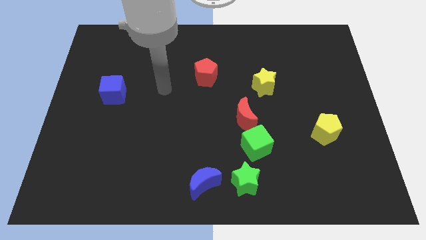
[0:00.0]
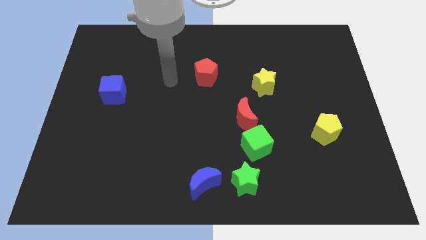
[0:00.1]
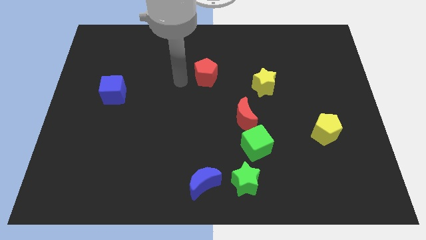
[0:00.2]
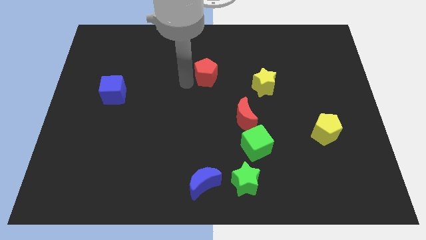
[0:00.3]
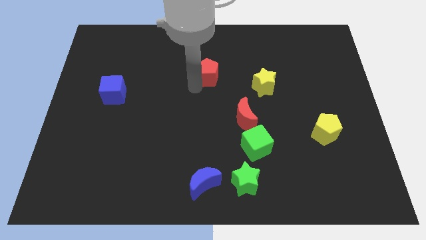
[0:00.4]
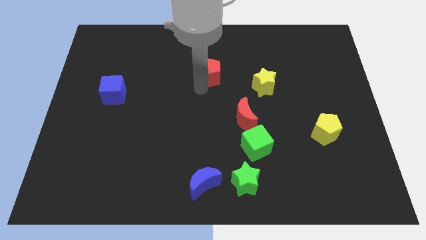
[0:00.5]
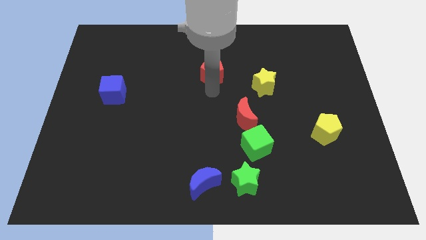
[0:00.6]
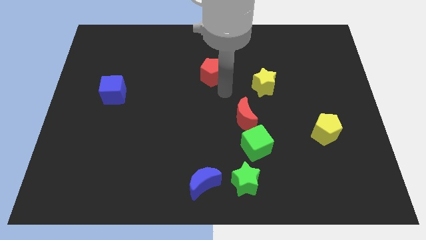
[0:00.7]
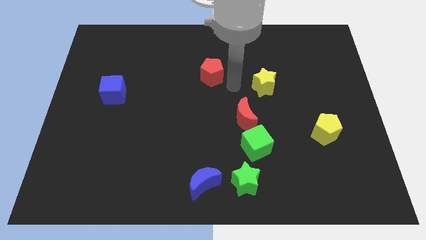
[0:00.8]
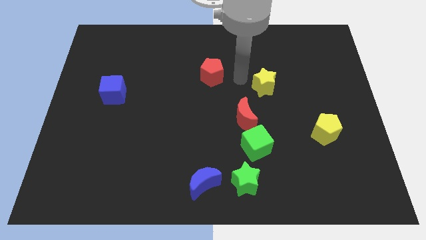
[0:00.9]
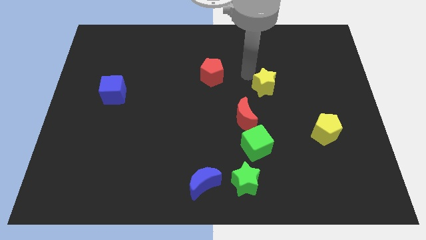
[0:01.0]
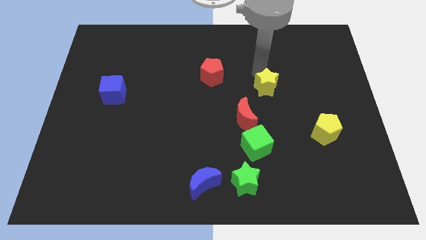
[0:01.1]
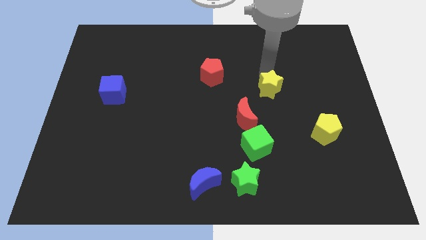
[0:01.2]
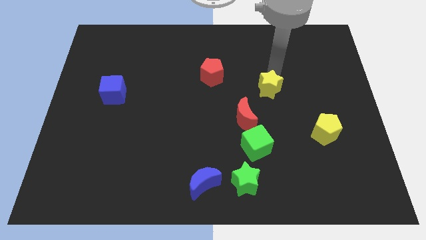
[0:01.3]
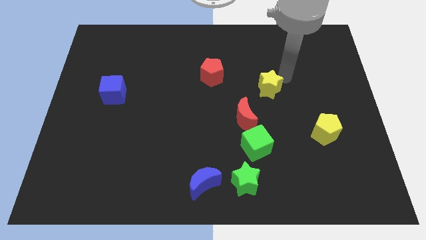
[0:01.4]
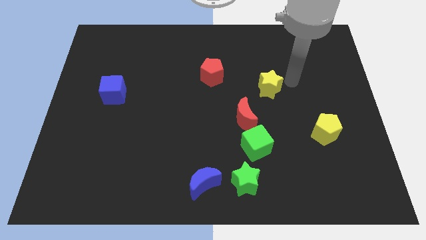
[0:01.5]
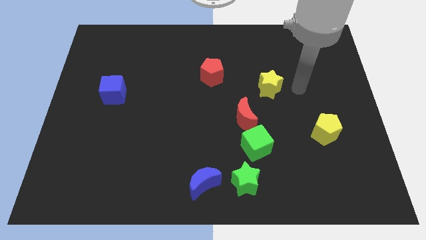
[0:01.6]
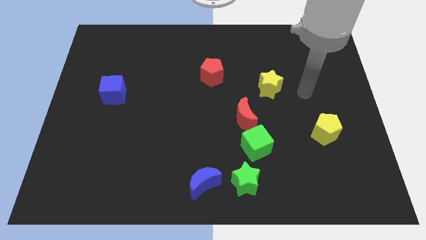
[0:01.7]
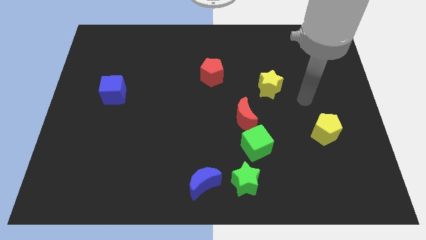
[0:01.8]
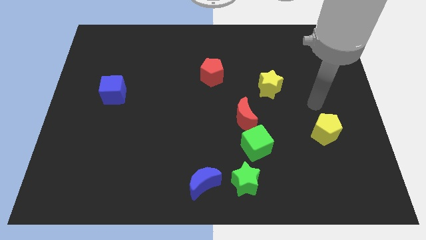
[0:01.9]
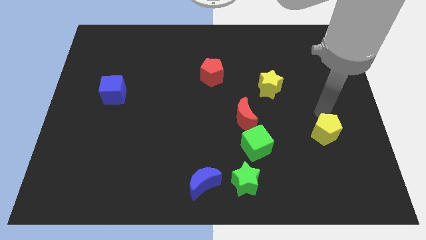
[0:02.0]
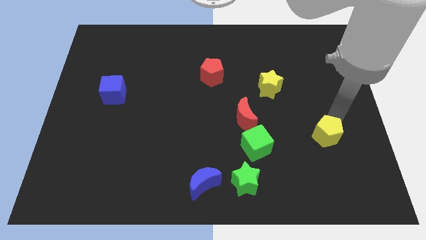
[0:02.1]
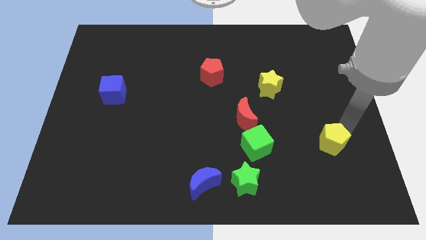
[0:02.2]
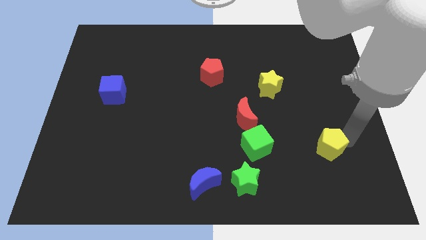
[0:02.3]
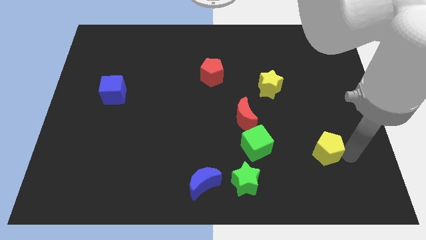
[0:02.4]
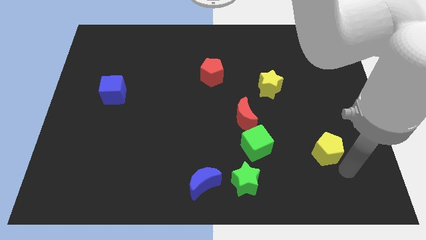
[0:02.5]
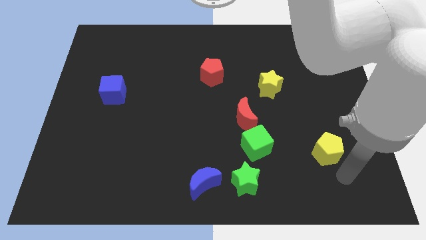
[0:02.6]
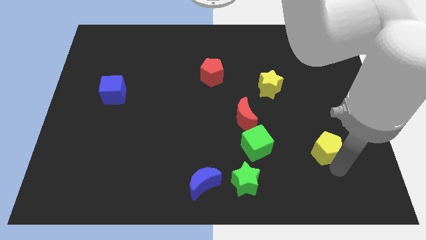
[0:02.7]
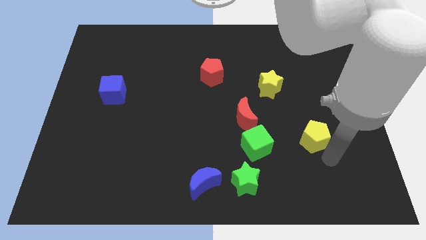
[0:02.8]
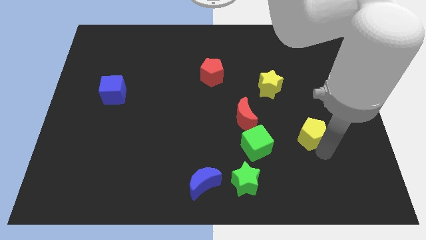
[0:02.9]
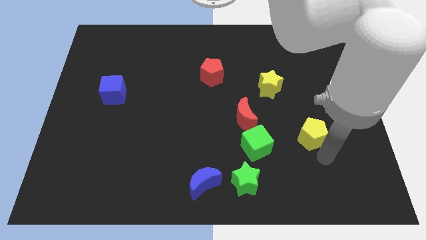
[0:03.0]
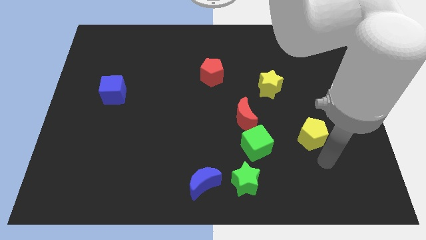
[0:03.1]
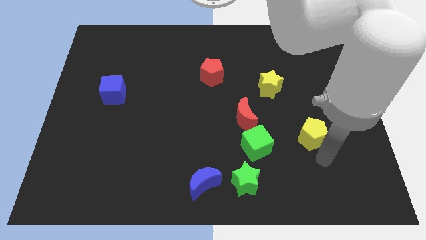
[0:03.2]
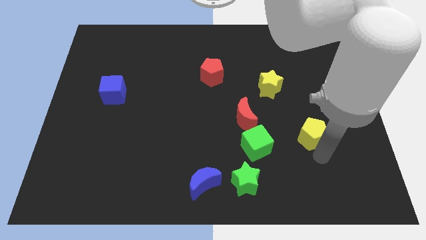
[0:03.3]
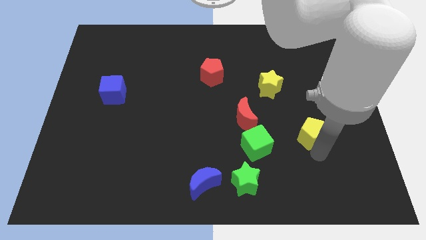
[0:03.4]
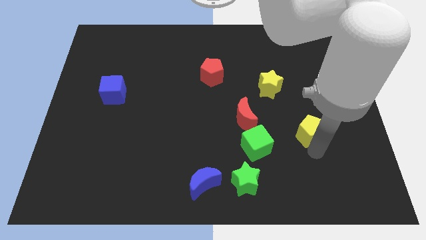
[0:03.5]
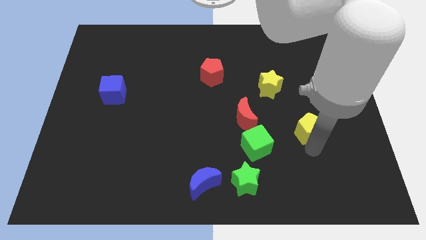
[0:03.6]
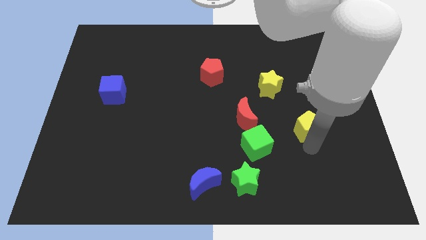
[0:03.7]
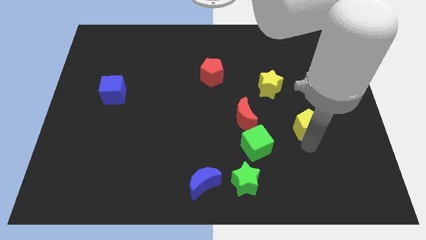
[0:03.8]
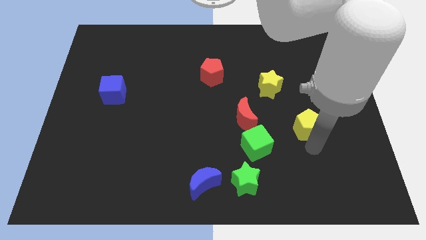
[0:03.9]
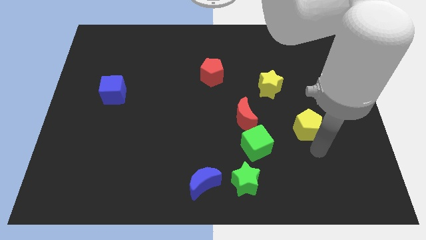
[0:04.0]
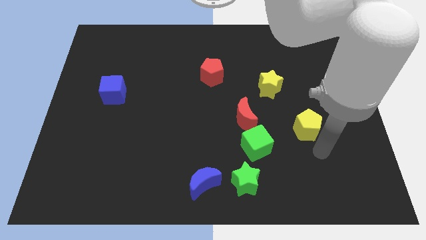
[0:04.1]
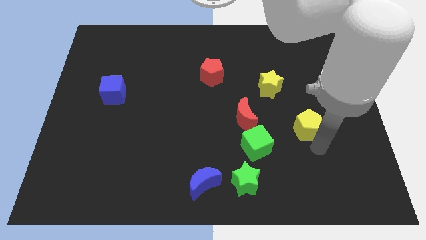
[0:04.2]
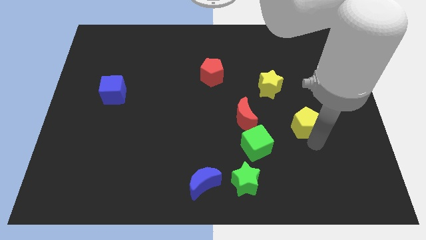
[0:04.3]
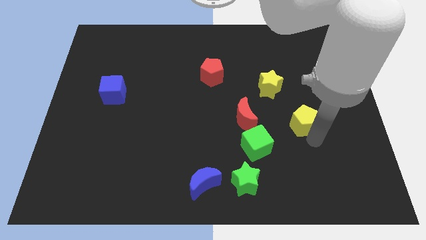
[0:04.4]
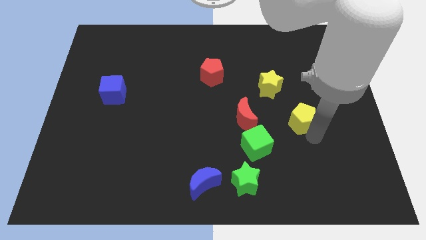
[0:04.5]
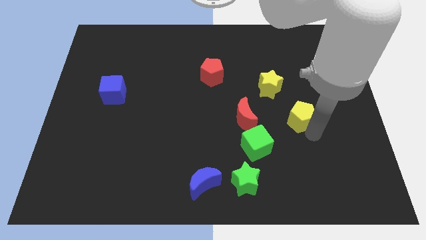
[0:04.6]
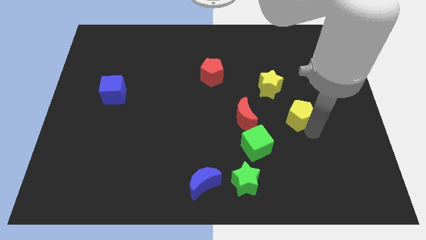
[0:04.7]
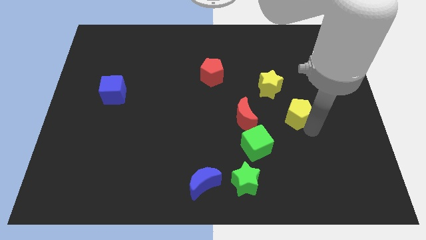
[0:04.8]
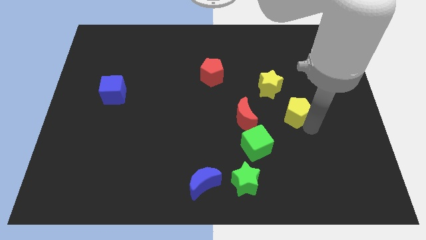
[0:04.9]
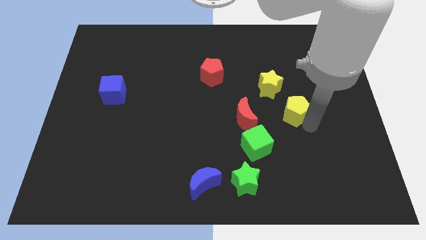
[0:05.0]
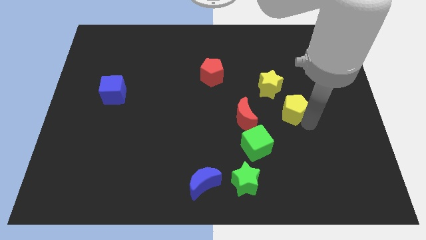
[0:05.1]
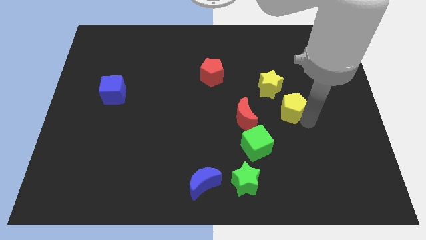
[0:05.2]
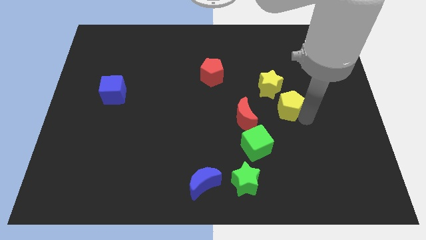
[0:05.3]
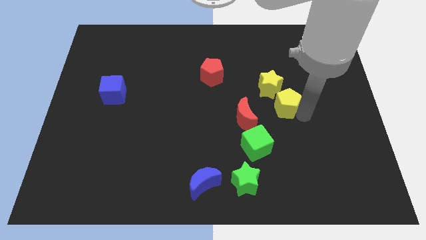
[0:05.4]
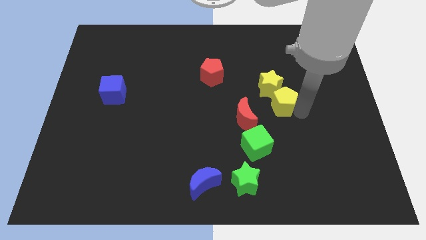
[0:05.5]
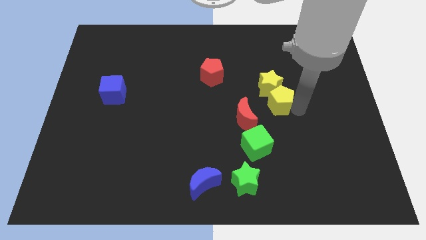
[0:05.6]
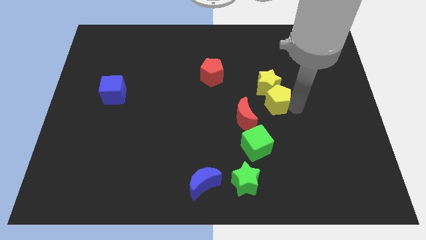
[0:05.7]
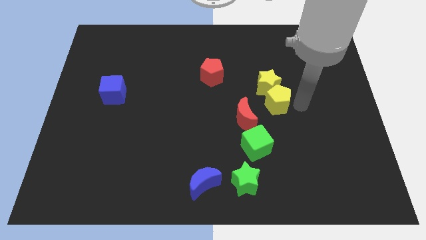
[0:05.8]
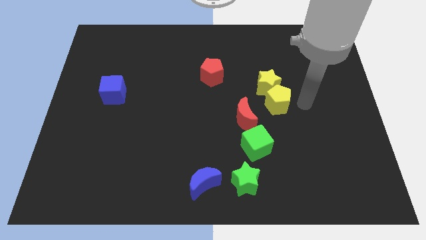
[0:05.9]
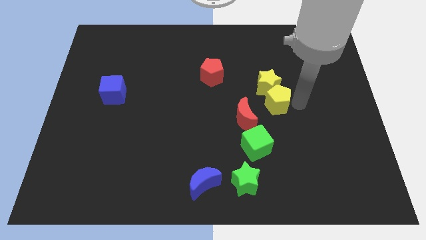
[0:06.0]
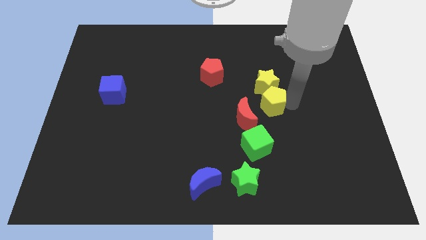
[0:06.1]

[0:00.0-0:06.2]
push the yellow pentagon diagonally down and to the left of the yellow star

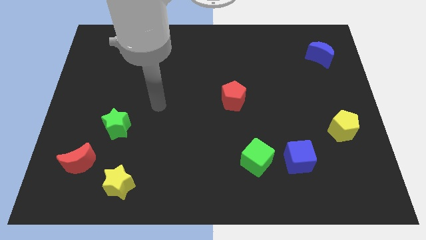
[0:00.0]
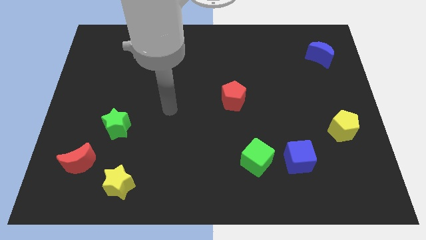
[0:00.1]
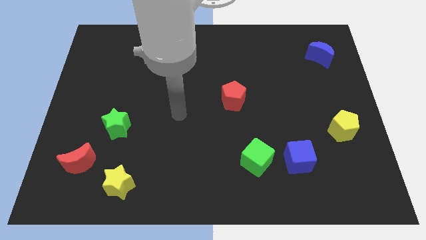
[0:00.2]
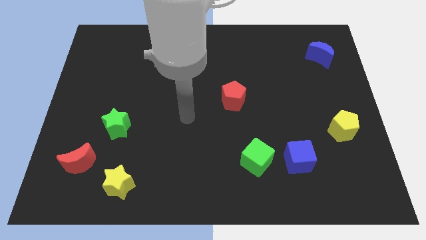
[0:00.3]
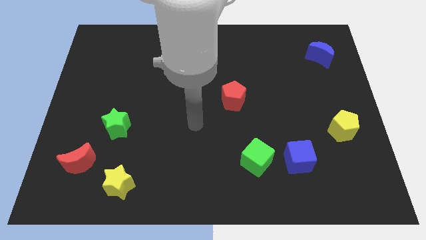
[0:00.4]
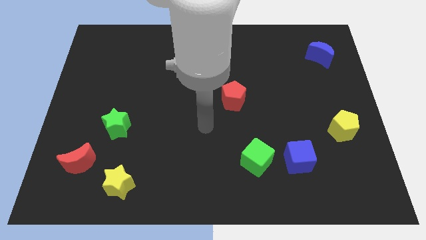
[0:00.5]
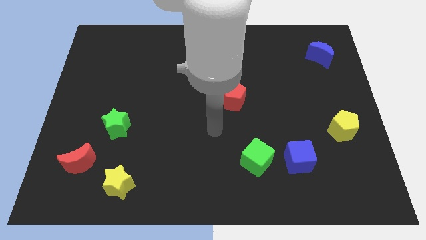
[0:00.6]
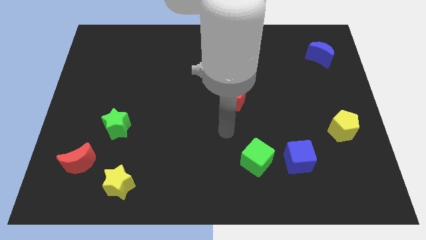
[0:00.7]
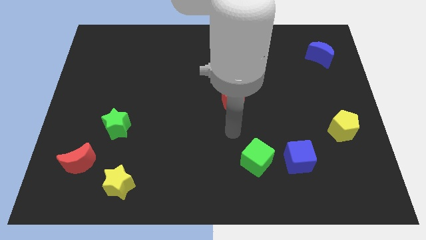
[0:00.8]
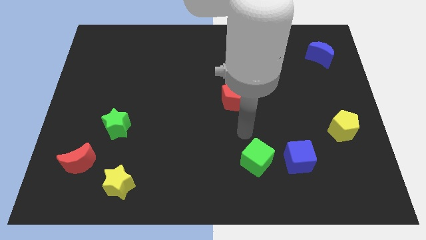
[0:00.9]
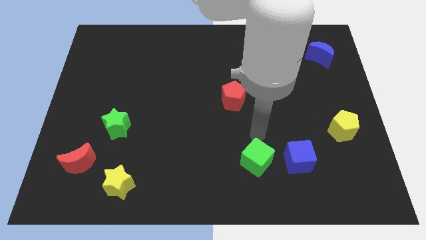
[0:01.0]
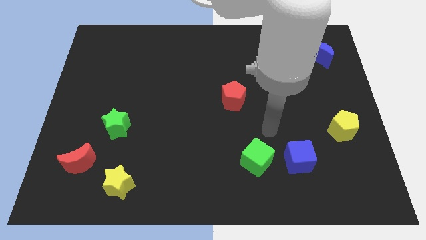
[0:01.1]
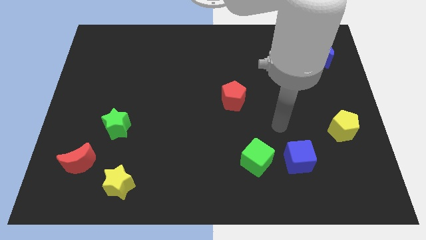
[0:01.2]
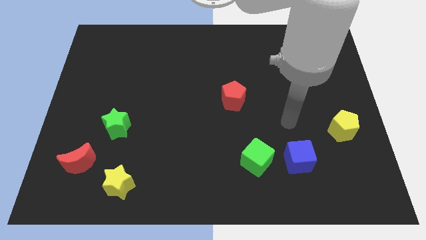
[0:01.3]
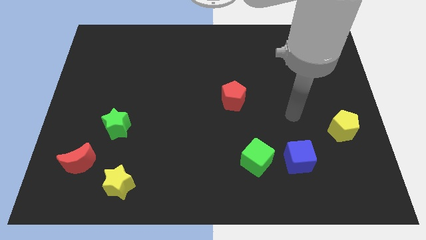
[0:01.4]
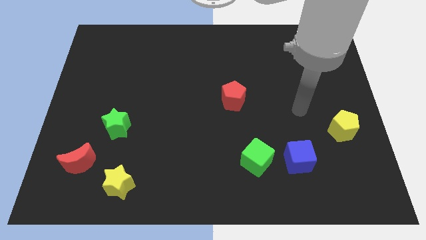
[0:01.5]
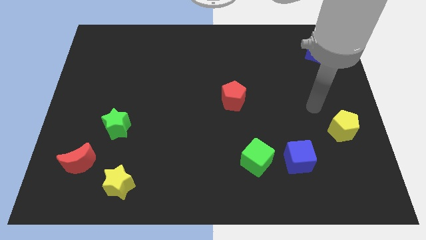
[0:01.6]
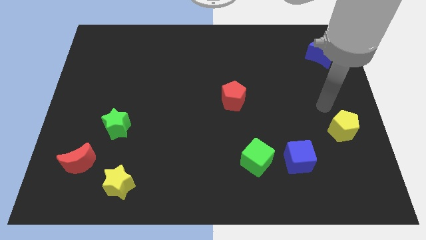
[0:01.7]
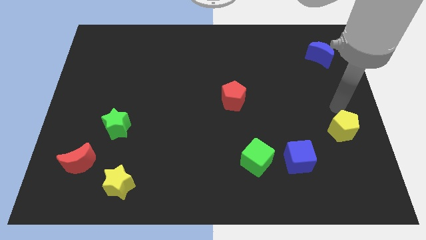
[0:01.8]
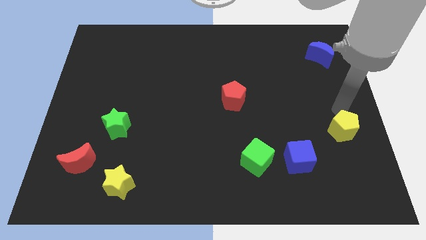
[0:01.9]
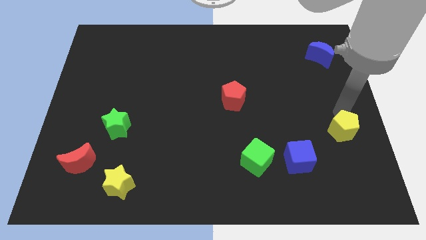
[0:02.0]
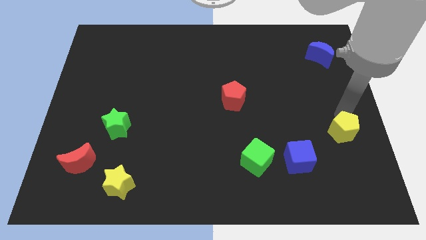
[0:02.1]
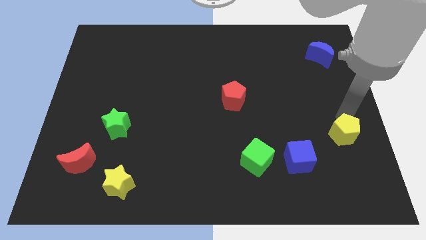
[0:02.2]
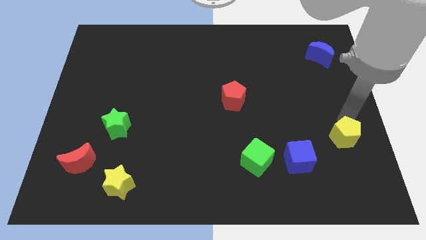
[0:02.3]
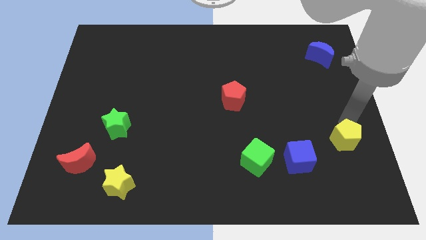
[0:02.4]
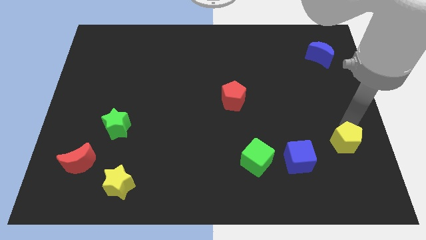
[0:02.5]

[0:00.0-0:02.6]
slide the yellow pentagon to the right side of the blue cube
